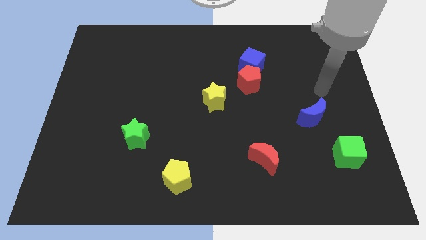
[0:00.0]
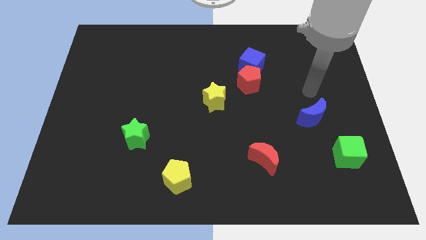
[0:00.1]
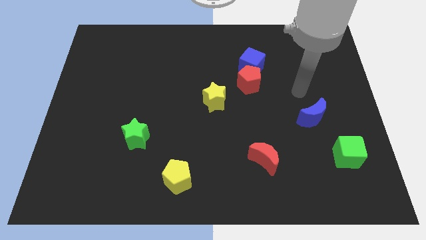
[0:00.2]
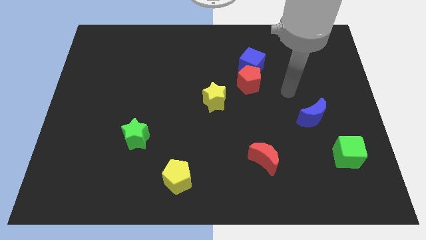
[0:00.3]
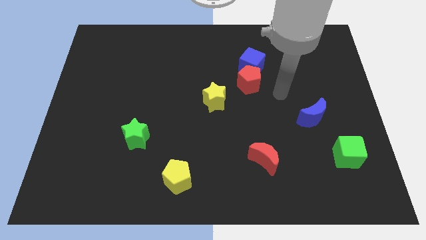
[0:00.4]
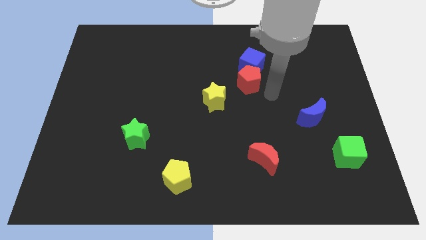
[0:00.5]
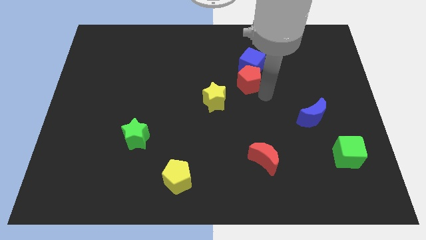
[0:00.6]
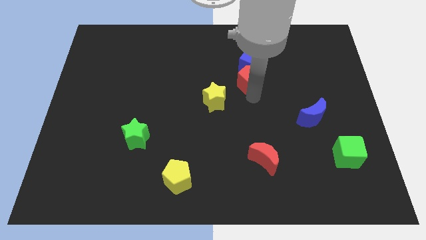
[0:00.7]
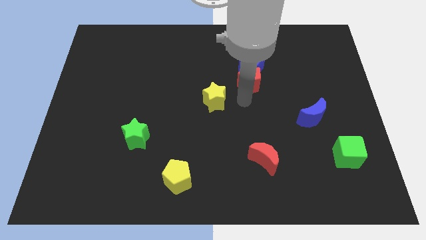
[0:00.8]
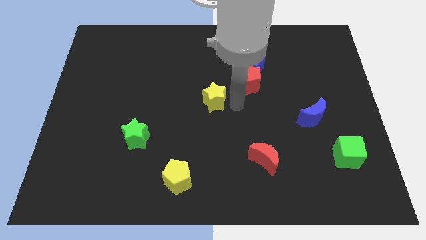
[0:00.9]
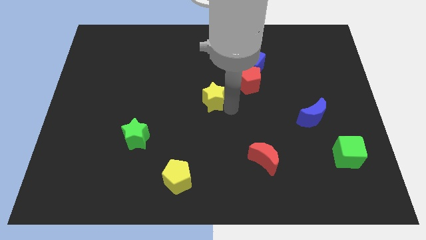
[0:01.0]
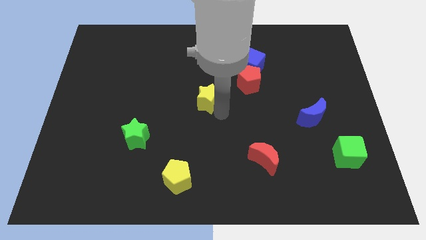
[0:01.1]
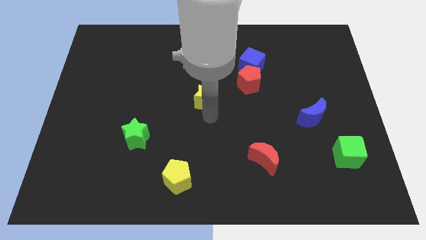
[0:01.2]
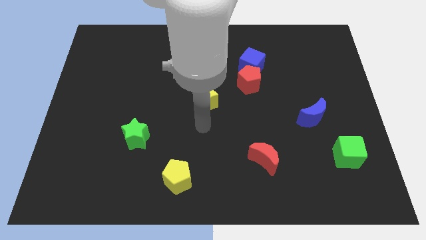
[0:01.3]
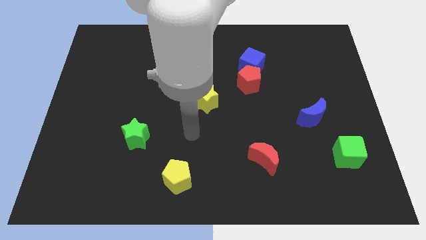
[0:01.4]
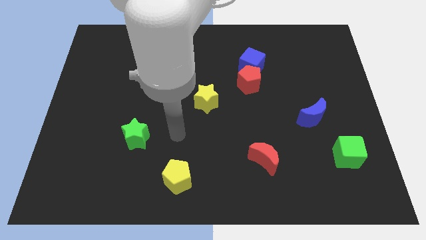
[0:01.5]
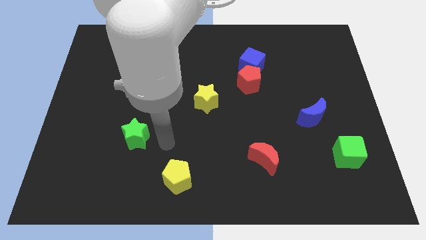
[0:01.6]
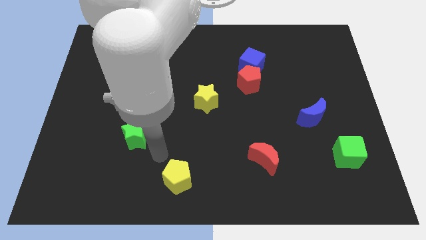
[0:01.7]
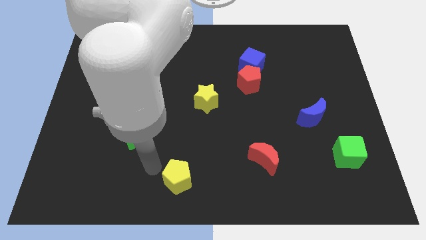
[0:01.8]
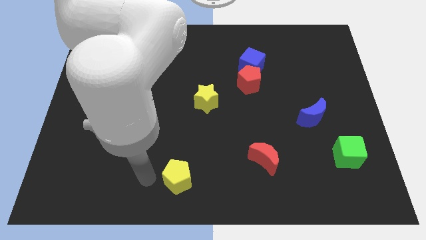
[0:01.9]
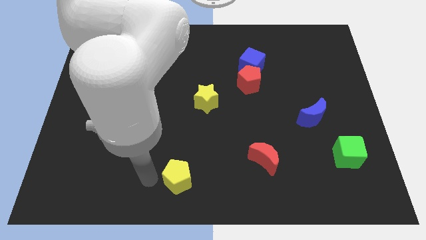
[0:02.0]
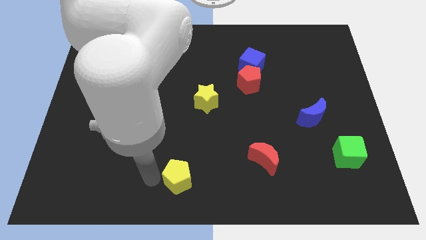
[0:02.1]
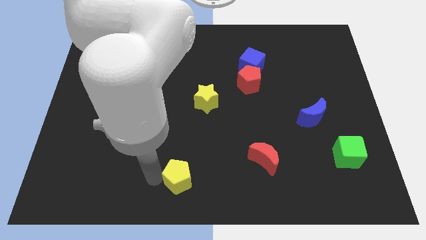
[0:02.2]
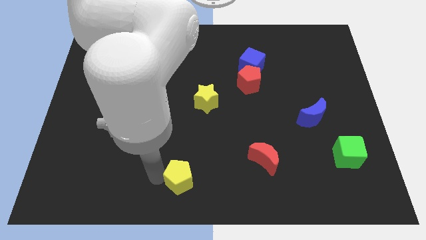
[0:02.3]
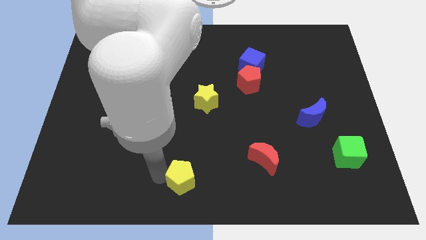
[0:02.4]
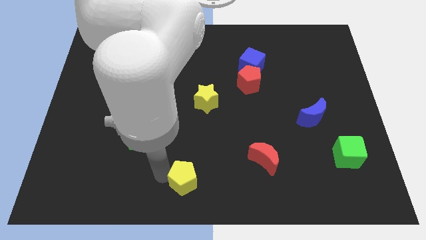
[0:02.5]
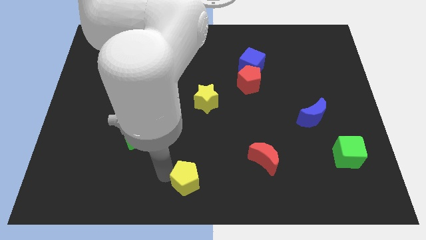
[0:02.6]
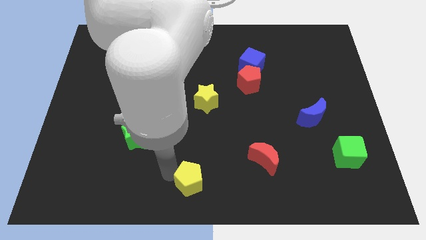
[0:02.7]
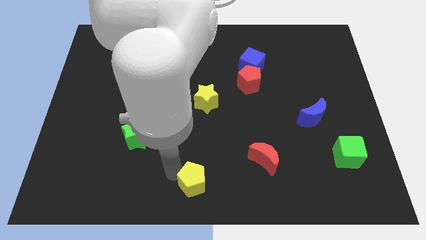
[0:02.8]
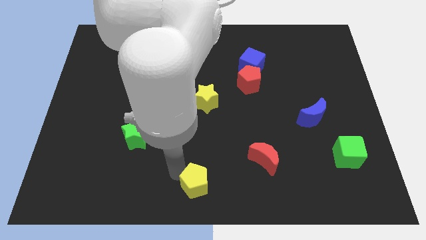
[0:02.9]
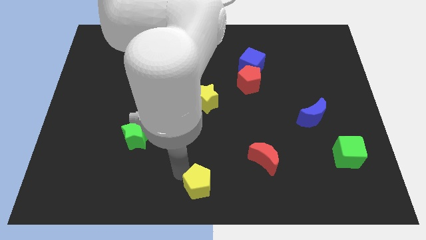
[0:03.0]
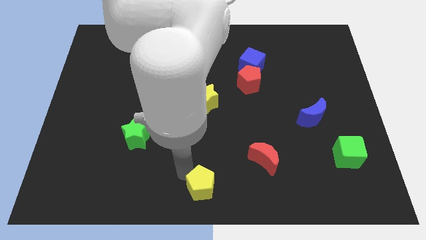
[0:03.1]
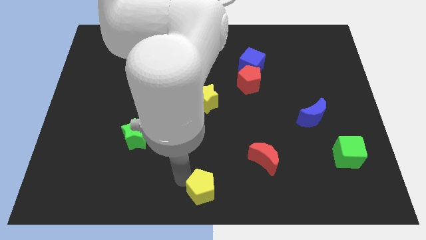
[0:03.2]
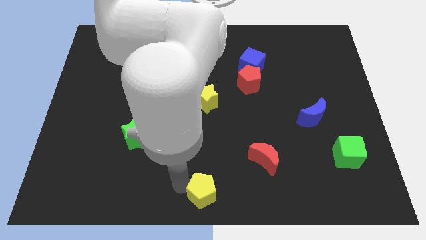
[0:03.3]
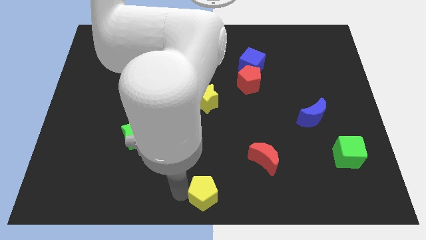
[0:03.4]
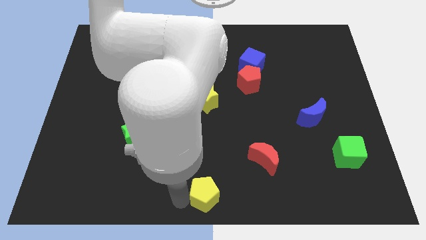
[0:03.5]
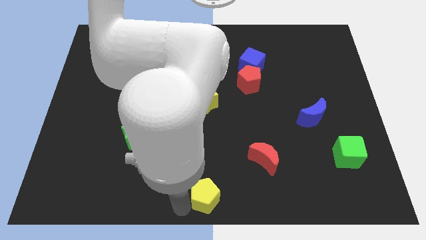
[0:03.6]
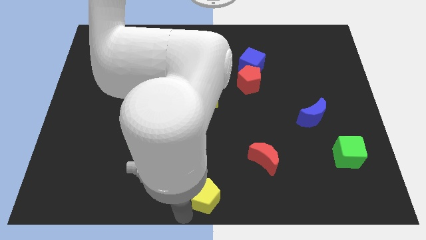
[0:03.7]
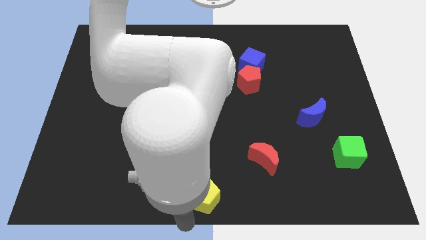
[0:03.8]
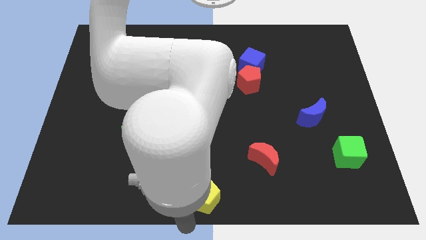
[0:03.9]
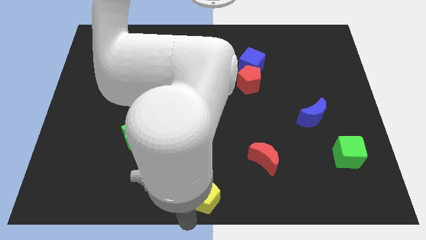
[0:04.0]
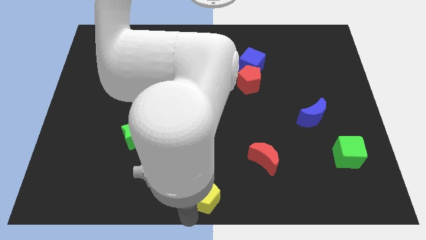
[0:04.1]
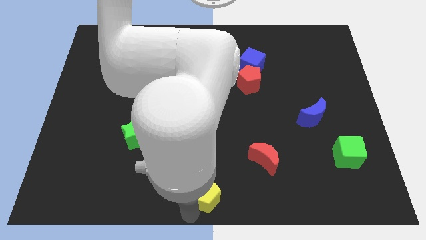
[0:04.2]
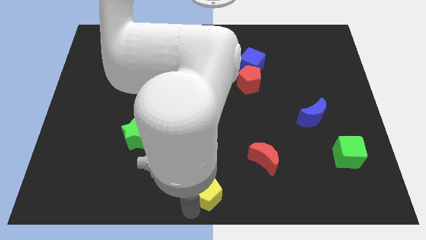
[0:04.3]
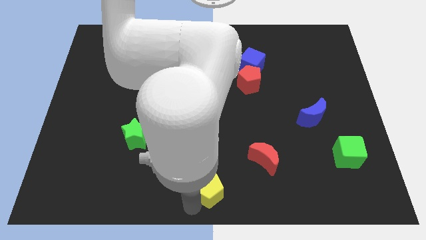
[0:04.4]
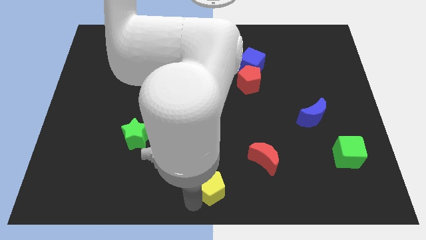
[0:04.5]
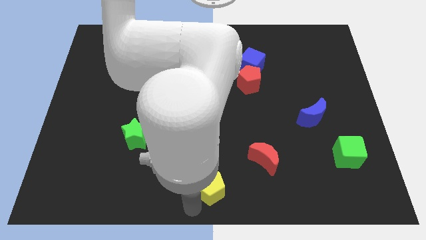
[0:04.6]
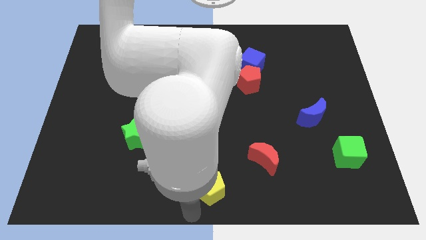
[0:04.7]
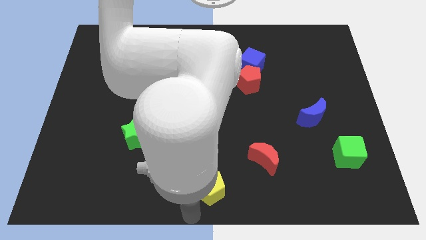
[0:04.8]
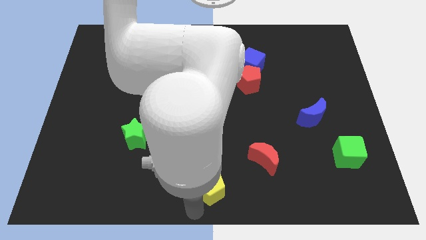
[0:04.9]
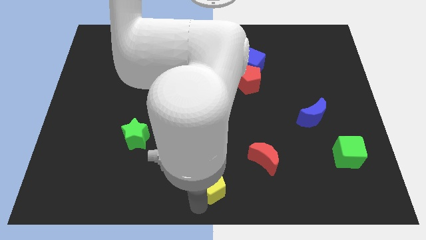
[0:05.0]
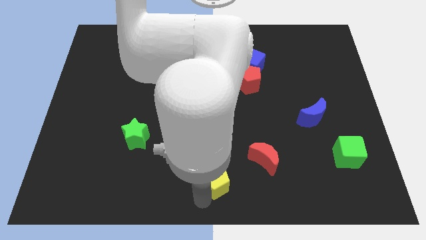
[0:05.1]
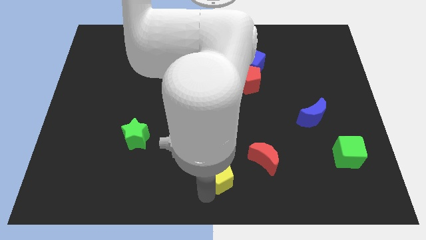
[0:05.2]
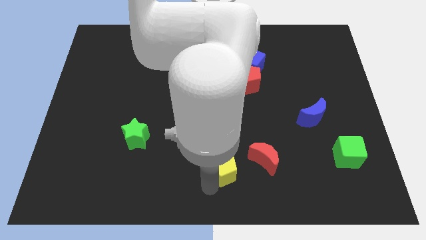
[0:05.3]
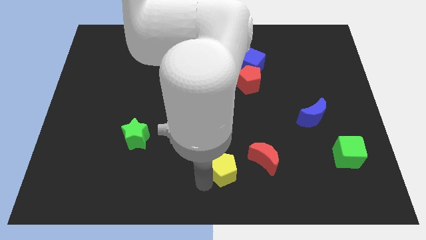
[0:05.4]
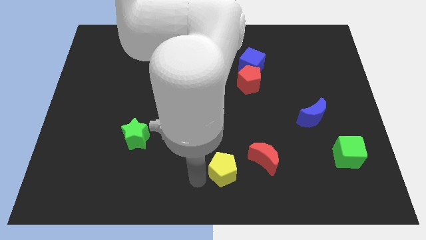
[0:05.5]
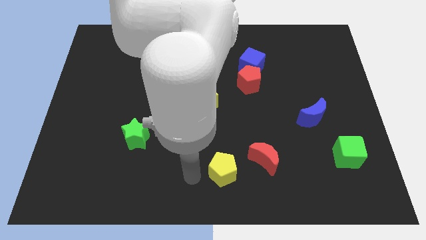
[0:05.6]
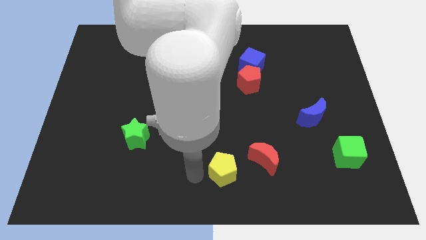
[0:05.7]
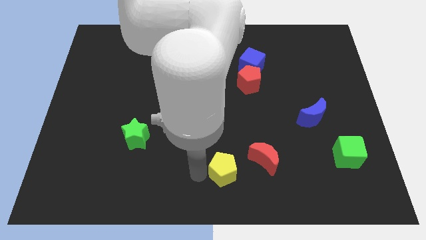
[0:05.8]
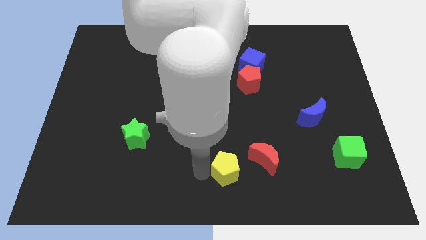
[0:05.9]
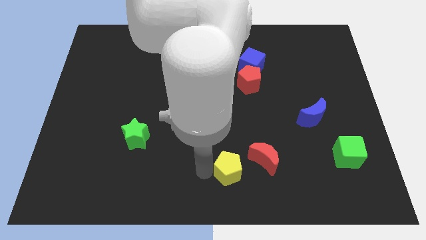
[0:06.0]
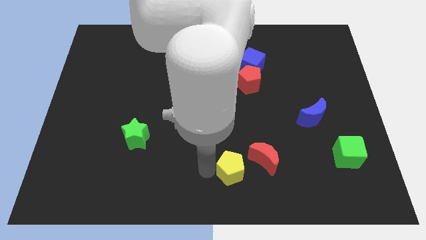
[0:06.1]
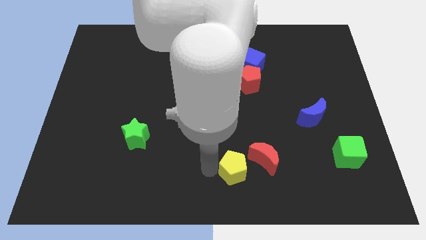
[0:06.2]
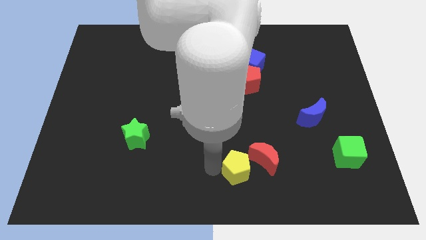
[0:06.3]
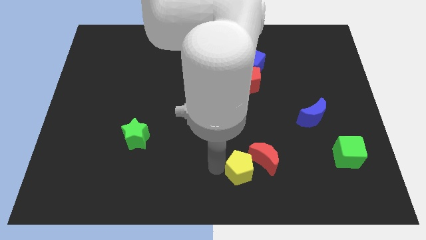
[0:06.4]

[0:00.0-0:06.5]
put the yellow pentagon next to the red moon

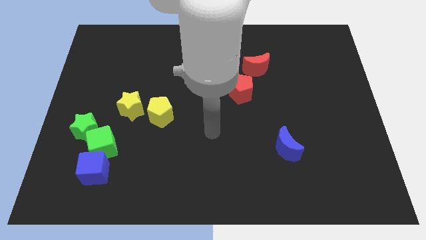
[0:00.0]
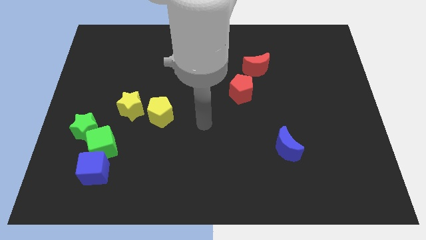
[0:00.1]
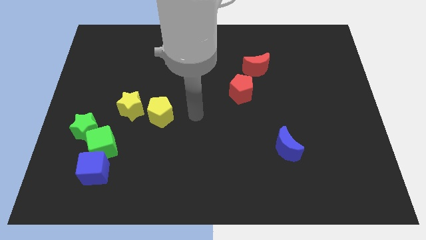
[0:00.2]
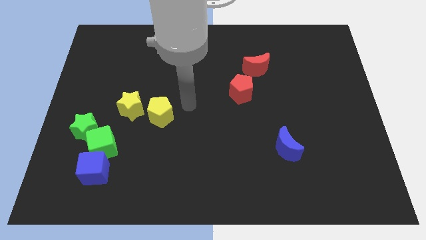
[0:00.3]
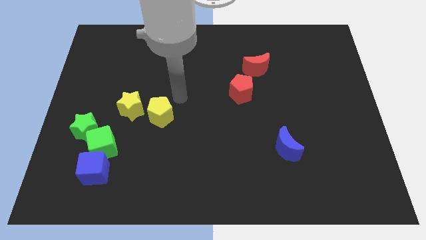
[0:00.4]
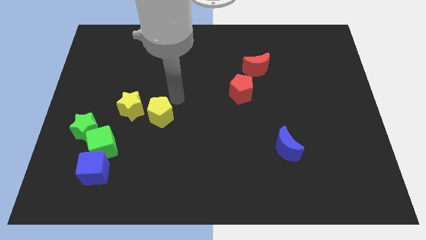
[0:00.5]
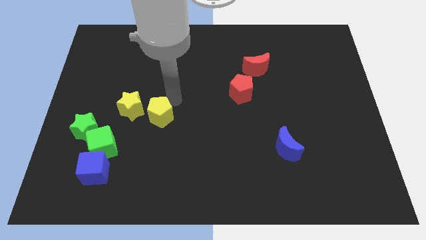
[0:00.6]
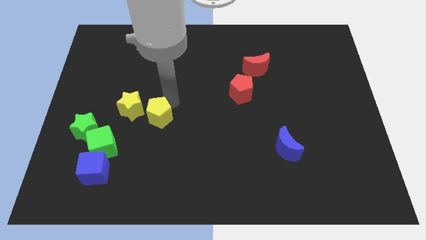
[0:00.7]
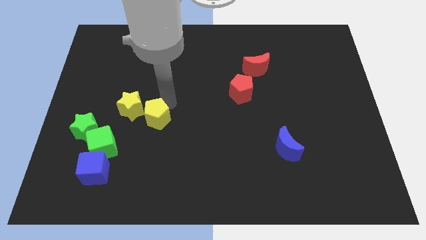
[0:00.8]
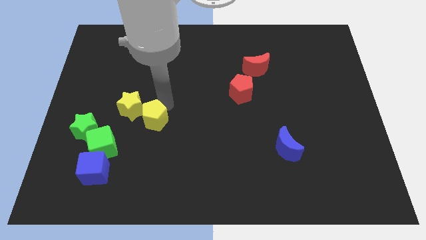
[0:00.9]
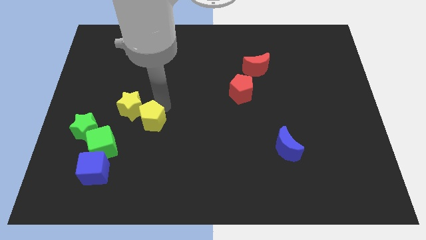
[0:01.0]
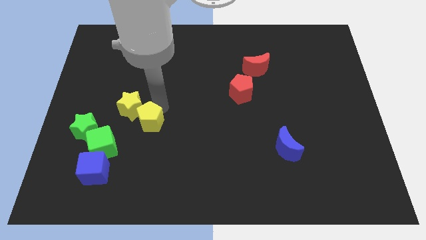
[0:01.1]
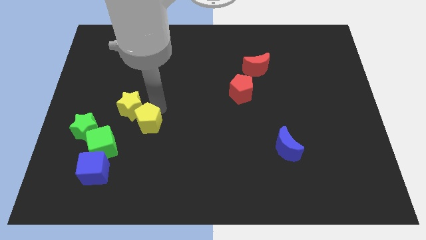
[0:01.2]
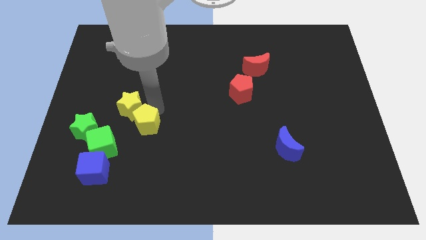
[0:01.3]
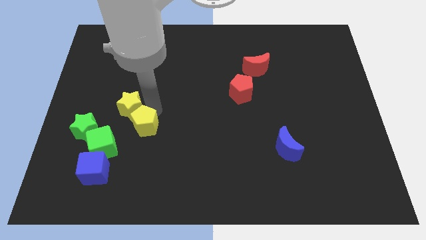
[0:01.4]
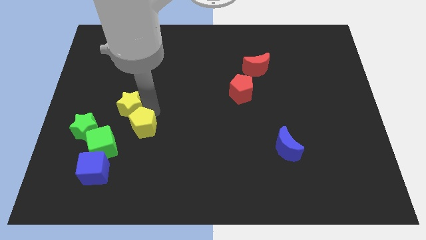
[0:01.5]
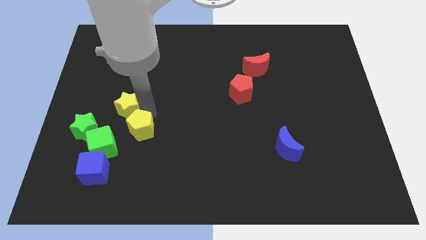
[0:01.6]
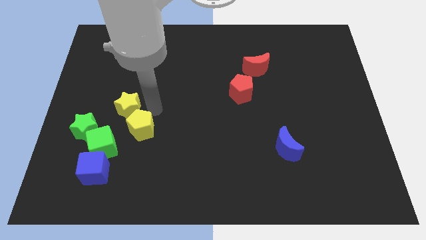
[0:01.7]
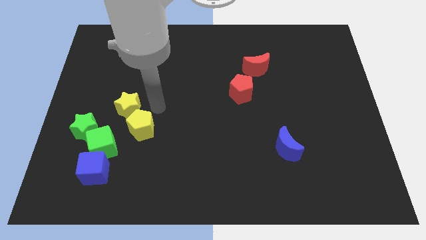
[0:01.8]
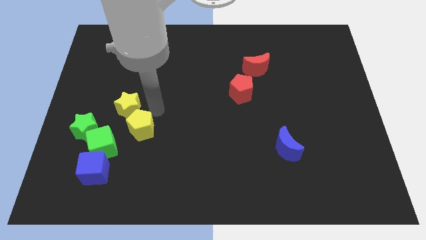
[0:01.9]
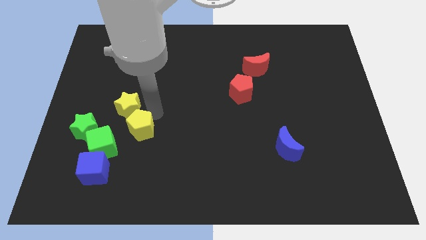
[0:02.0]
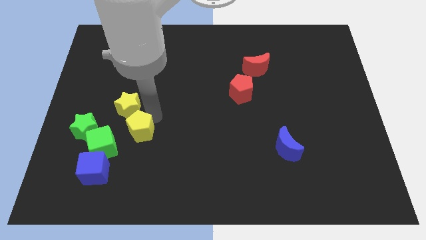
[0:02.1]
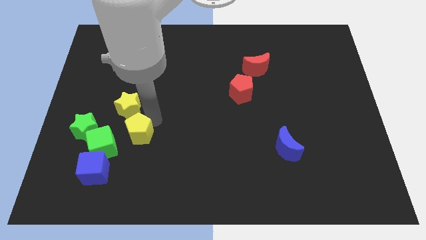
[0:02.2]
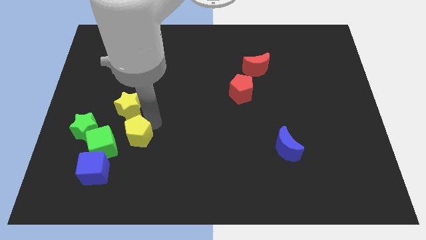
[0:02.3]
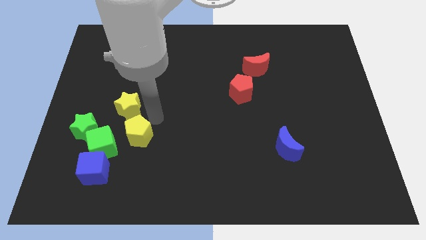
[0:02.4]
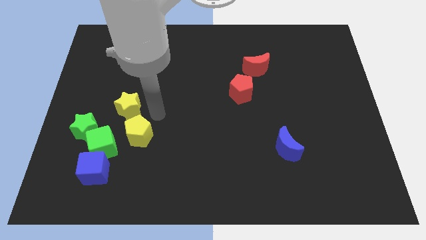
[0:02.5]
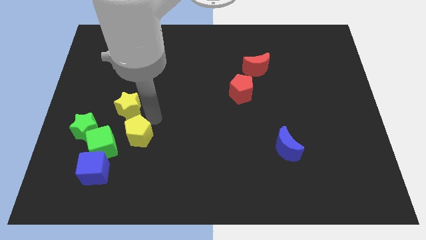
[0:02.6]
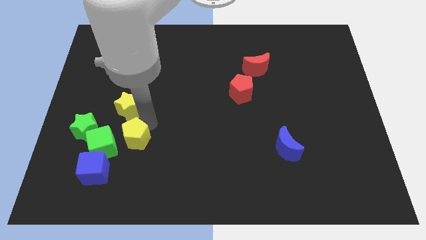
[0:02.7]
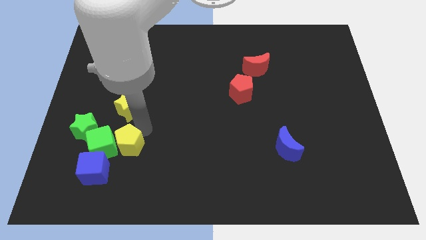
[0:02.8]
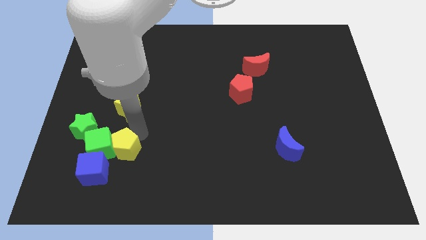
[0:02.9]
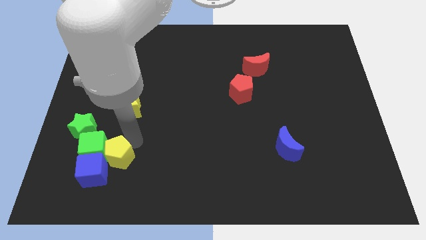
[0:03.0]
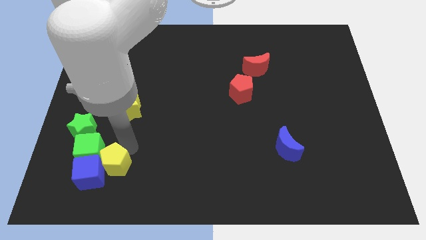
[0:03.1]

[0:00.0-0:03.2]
push the yellow pentagon towards the blue cube
